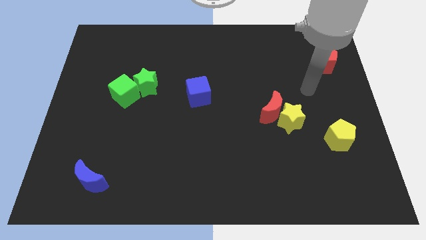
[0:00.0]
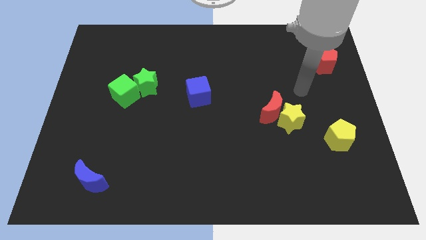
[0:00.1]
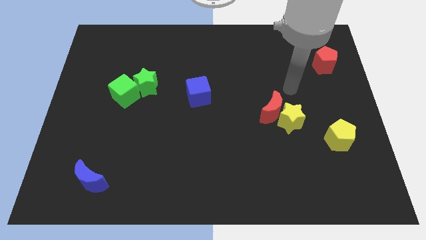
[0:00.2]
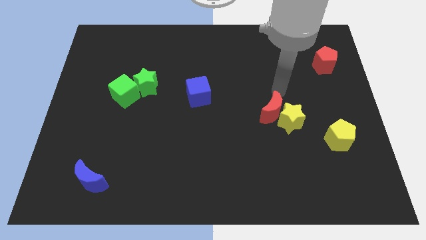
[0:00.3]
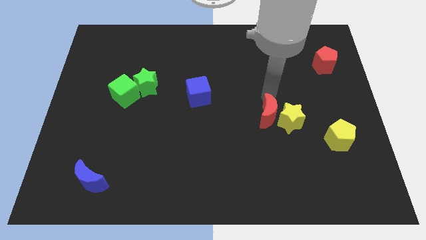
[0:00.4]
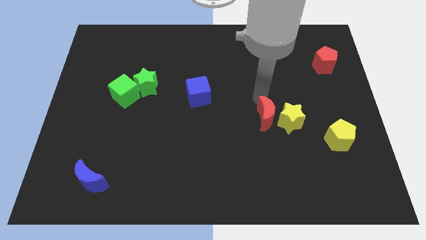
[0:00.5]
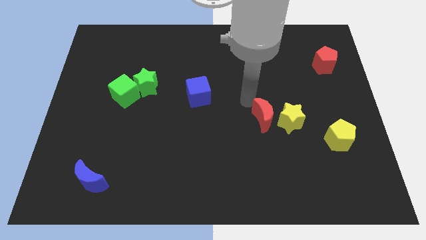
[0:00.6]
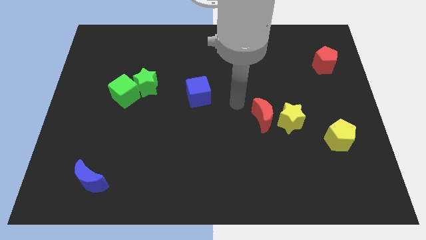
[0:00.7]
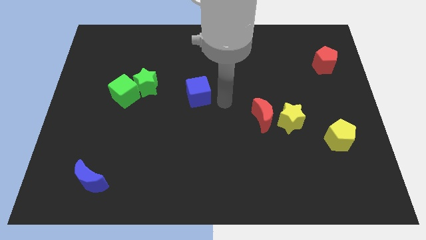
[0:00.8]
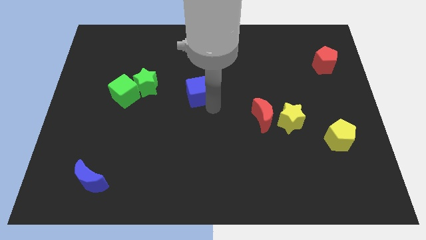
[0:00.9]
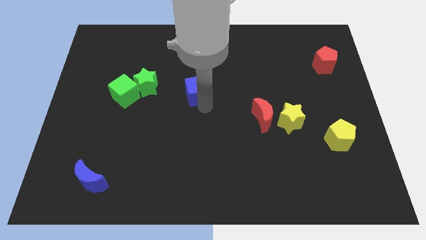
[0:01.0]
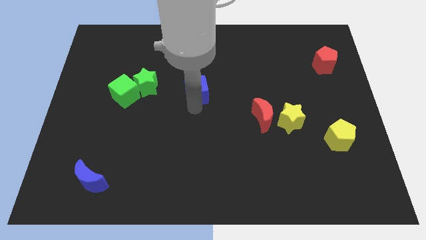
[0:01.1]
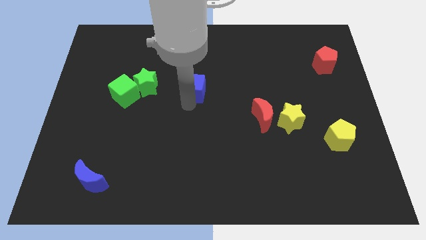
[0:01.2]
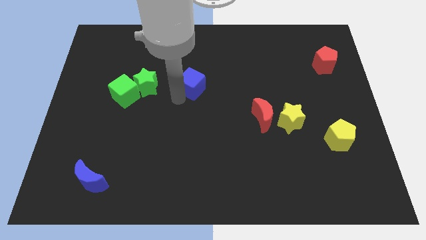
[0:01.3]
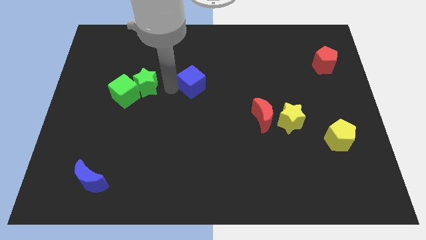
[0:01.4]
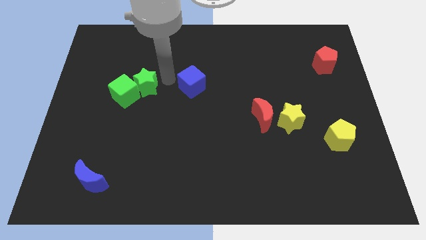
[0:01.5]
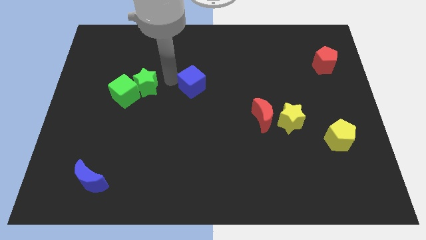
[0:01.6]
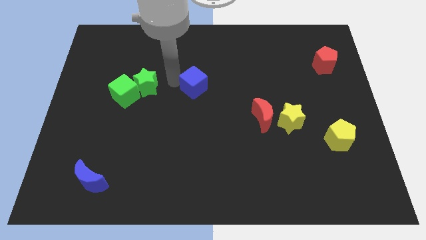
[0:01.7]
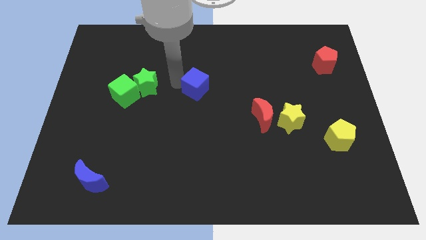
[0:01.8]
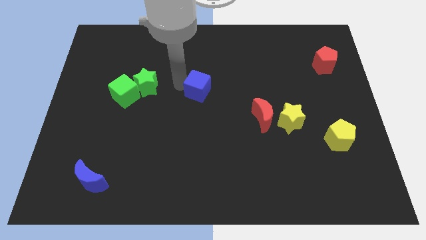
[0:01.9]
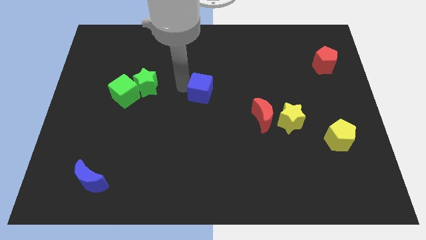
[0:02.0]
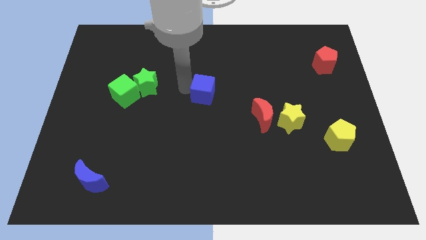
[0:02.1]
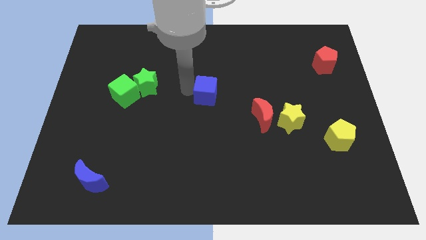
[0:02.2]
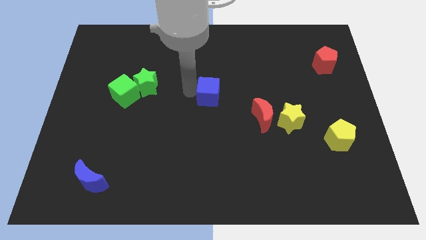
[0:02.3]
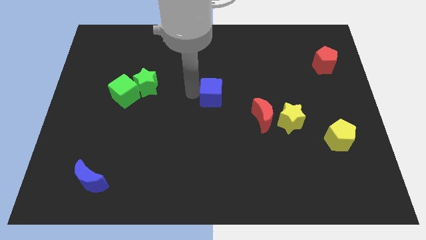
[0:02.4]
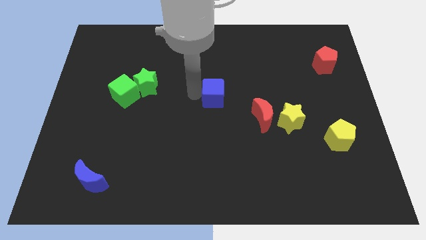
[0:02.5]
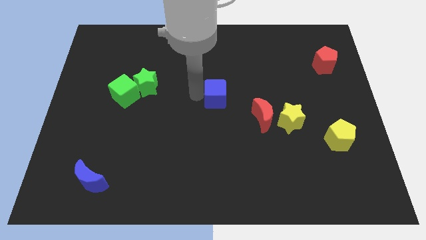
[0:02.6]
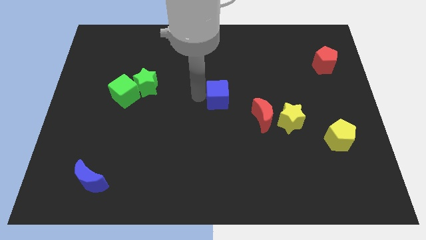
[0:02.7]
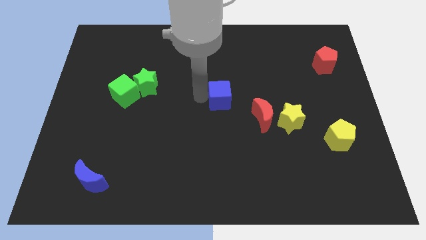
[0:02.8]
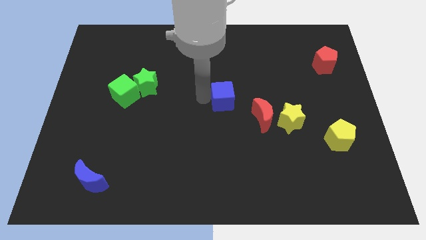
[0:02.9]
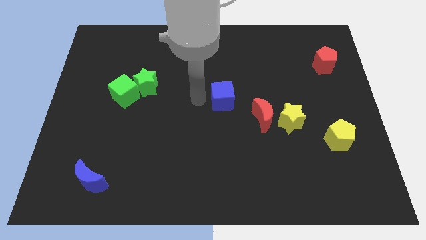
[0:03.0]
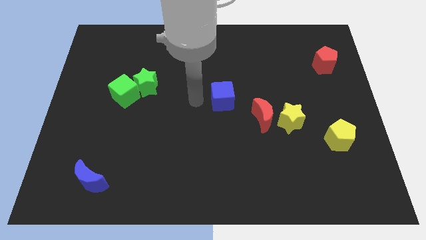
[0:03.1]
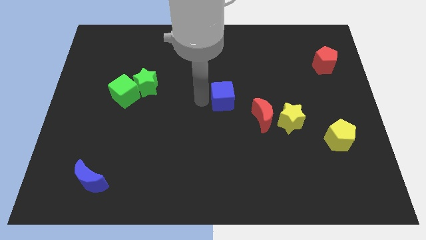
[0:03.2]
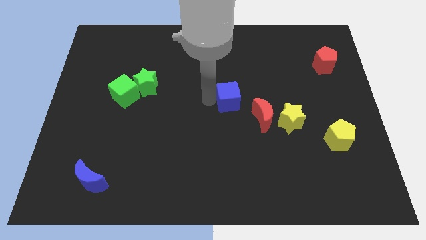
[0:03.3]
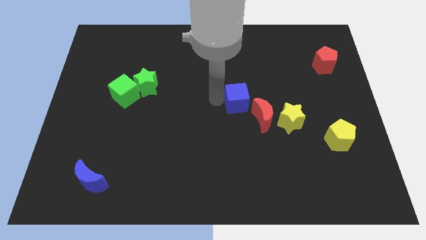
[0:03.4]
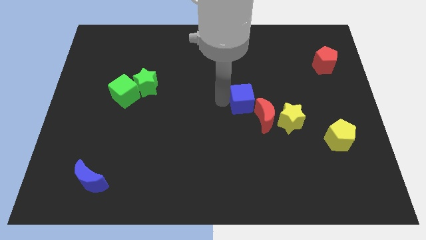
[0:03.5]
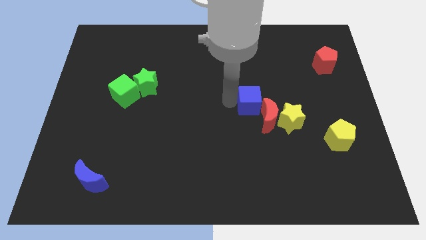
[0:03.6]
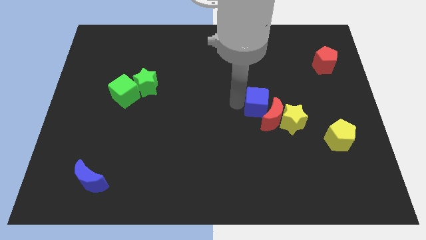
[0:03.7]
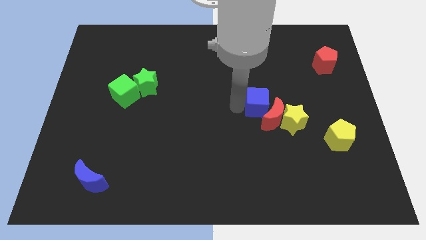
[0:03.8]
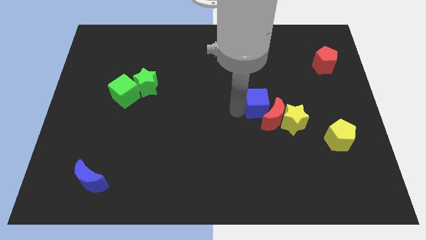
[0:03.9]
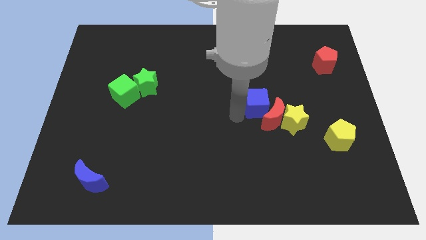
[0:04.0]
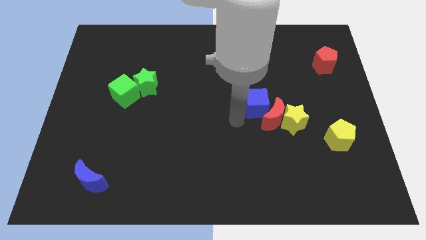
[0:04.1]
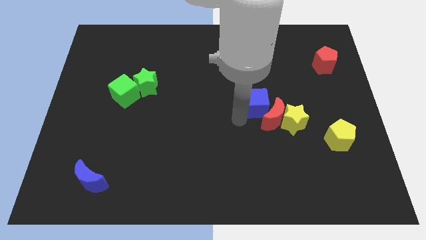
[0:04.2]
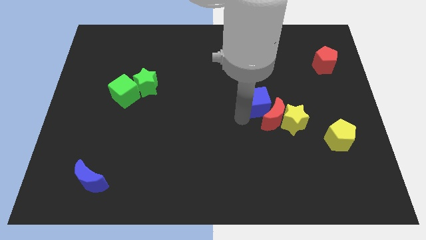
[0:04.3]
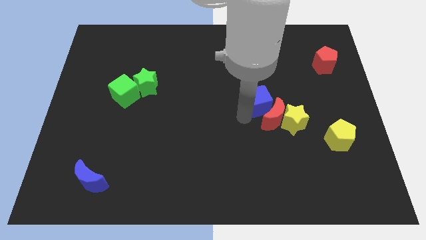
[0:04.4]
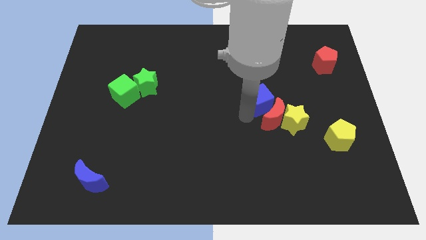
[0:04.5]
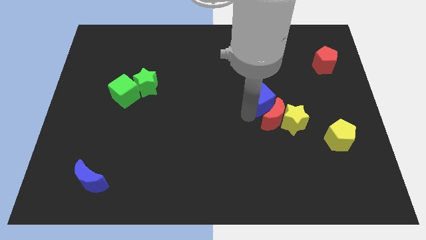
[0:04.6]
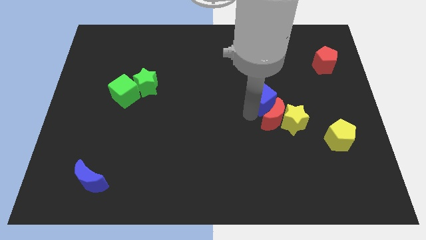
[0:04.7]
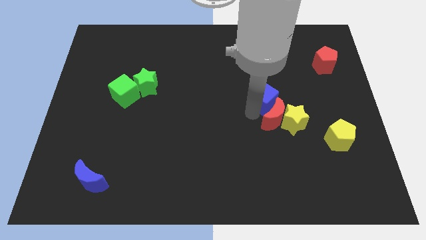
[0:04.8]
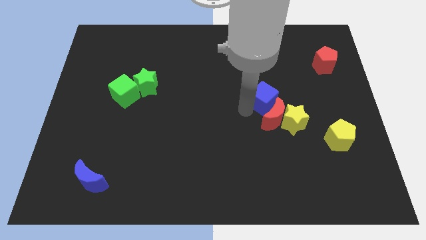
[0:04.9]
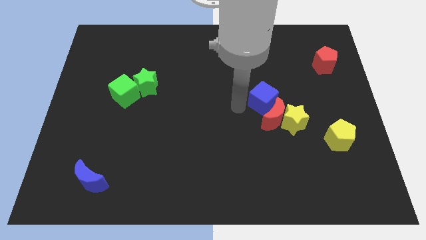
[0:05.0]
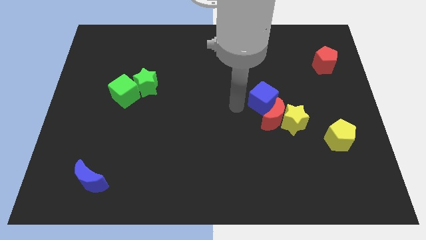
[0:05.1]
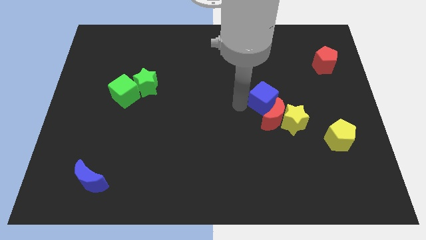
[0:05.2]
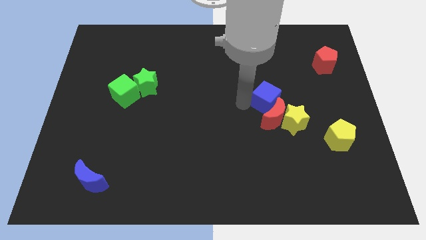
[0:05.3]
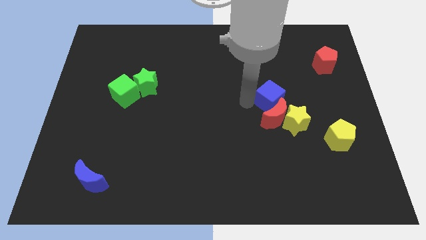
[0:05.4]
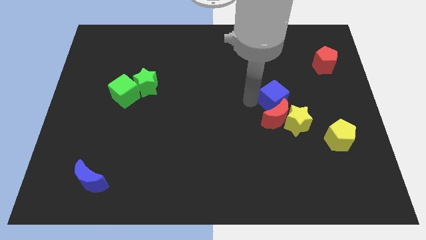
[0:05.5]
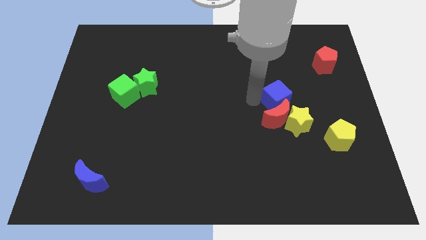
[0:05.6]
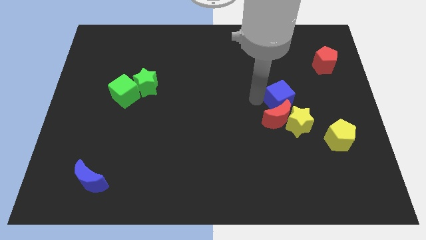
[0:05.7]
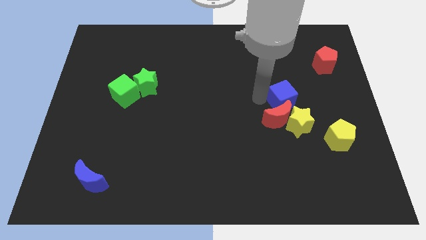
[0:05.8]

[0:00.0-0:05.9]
move the blue cube right

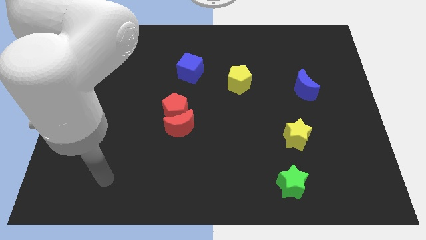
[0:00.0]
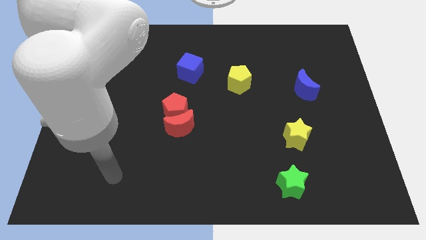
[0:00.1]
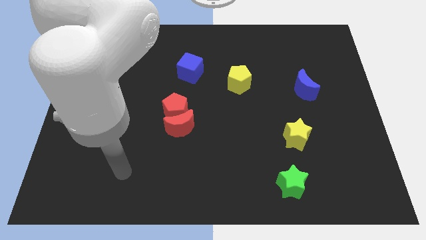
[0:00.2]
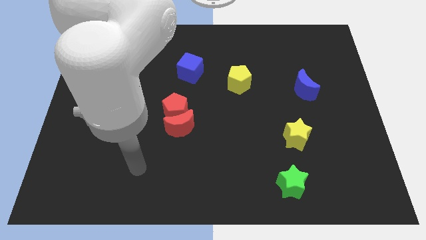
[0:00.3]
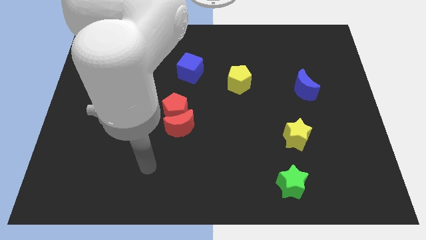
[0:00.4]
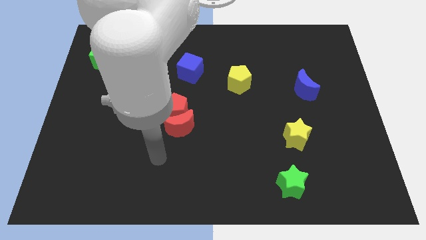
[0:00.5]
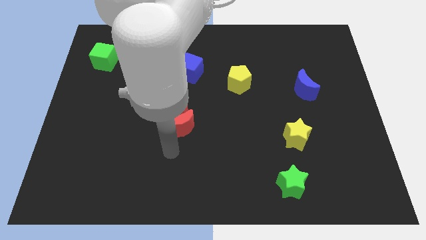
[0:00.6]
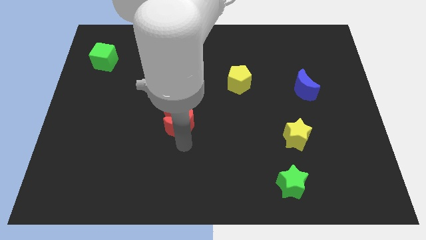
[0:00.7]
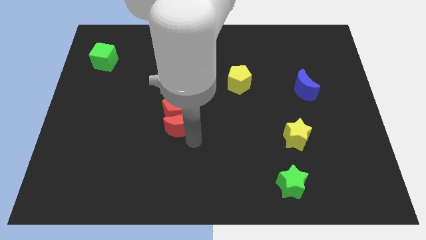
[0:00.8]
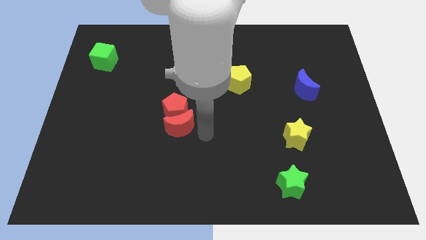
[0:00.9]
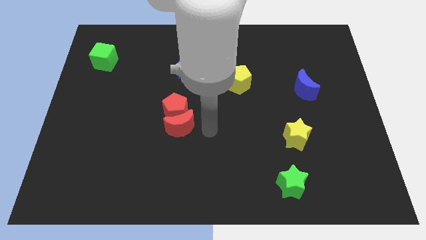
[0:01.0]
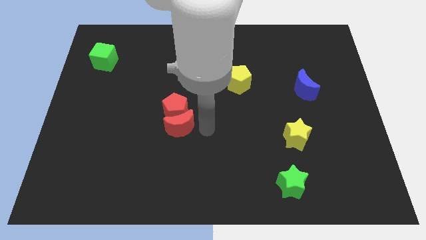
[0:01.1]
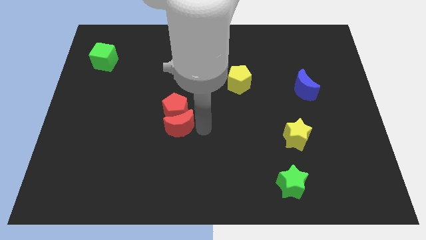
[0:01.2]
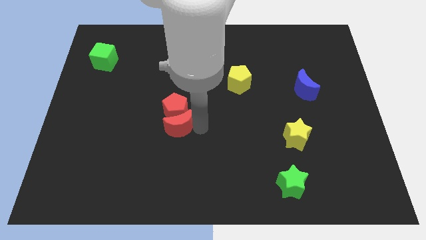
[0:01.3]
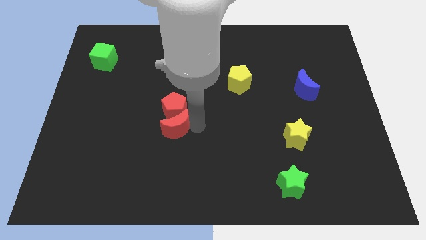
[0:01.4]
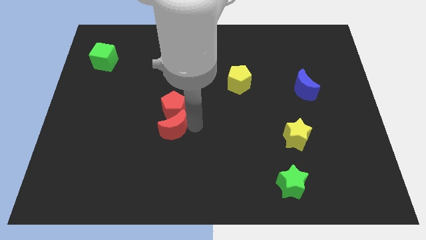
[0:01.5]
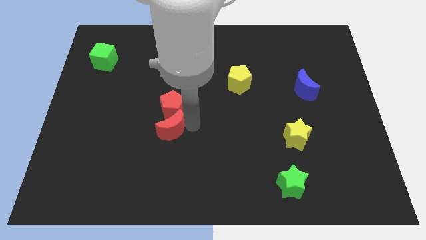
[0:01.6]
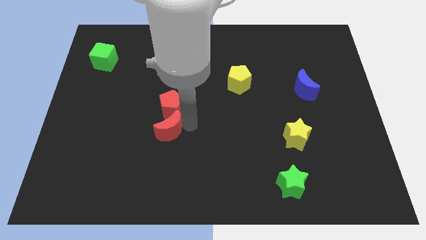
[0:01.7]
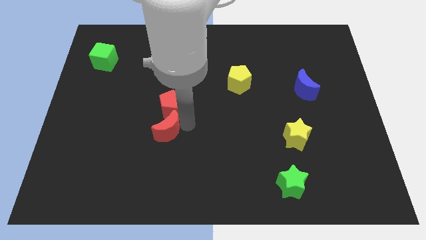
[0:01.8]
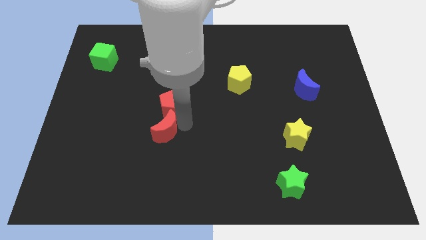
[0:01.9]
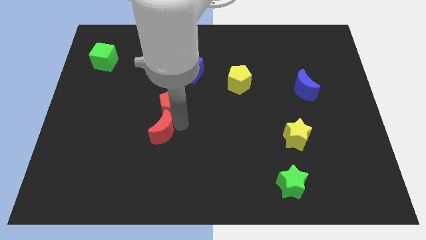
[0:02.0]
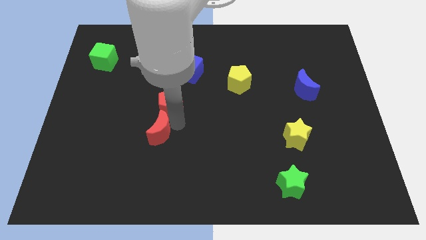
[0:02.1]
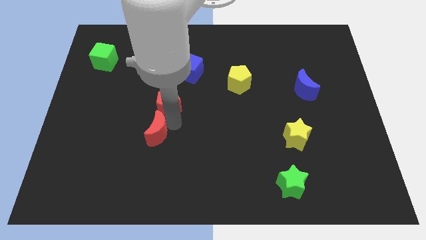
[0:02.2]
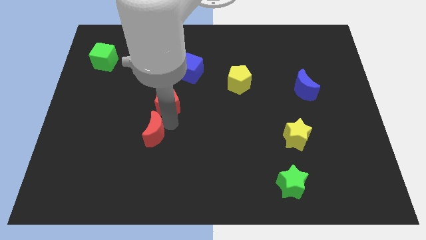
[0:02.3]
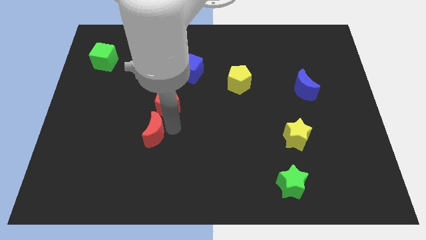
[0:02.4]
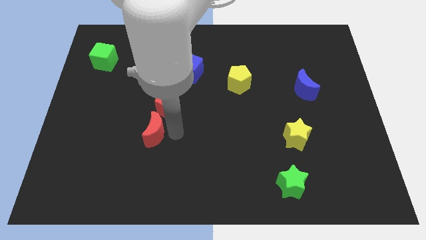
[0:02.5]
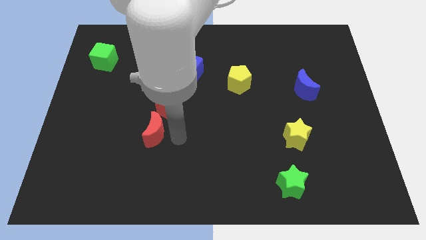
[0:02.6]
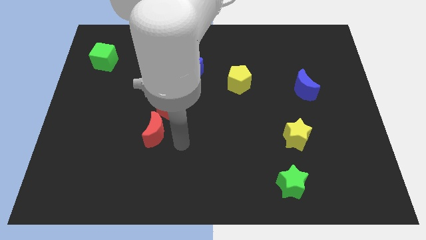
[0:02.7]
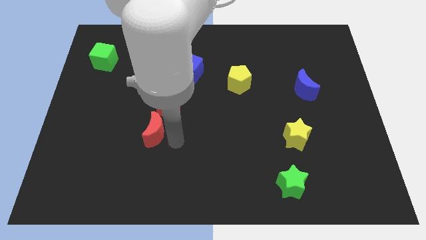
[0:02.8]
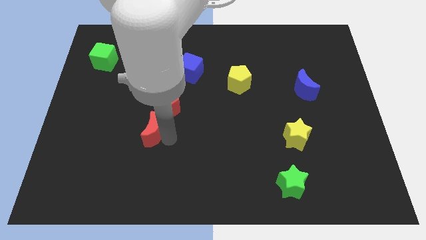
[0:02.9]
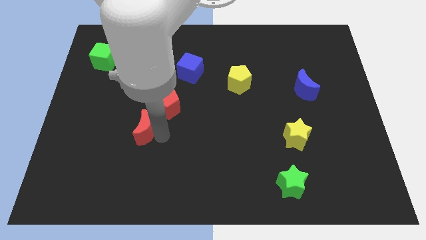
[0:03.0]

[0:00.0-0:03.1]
push the red moon a little to the left
